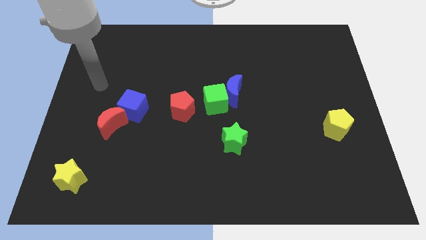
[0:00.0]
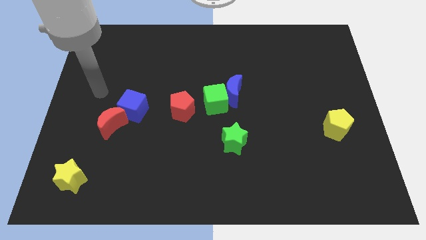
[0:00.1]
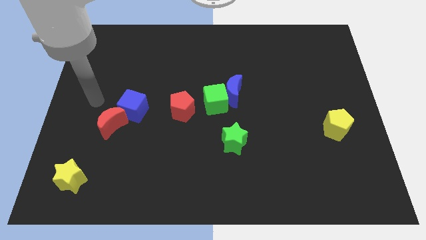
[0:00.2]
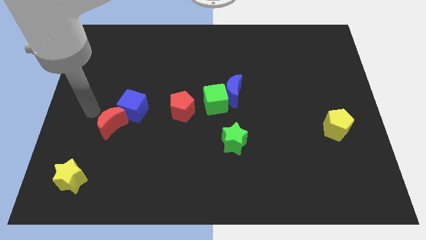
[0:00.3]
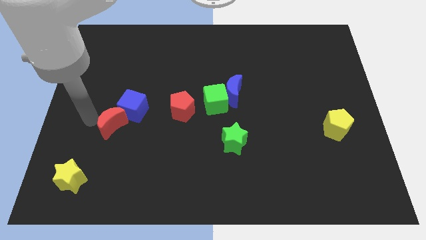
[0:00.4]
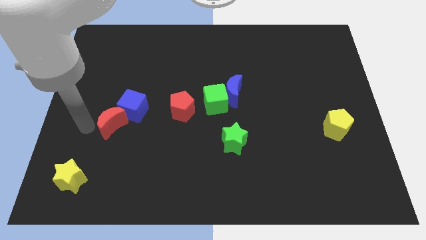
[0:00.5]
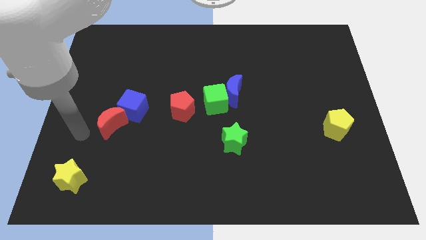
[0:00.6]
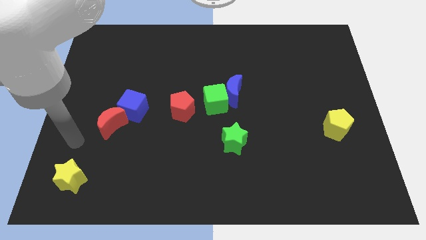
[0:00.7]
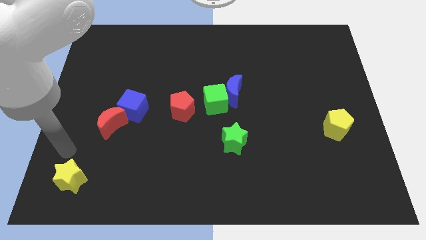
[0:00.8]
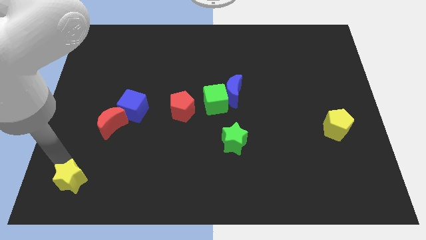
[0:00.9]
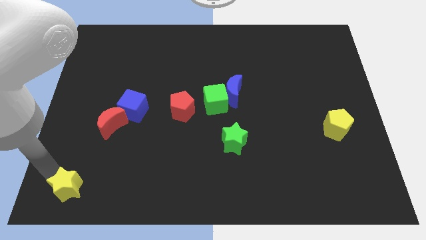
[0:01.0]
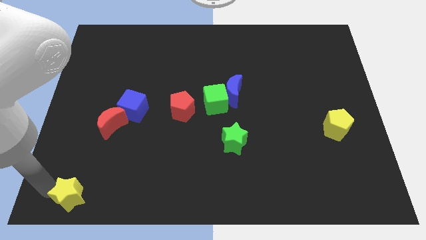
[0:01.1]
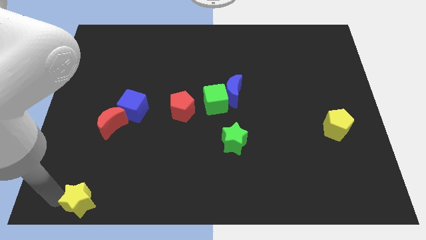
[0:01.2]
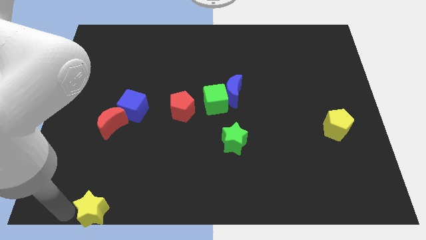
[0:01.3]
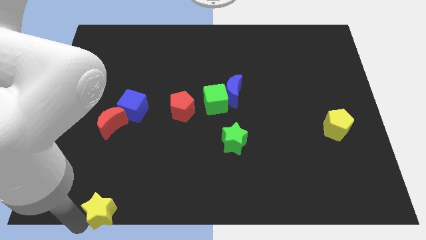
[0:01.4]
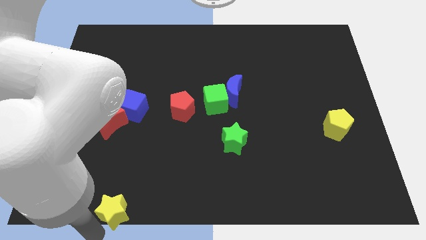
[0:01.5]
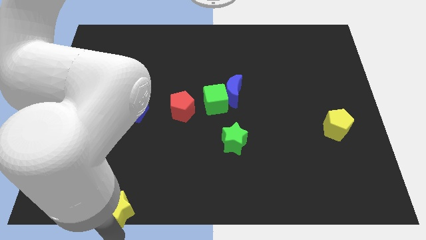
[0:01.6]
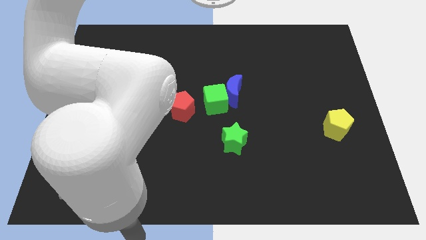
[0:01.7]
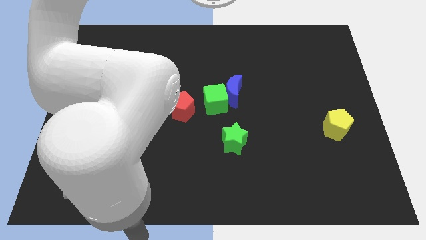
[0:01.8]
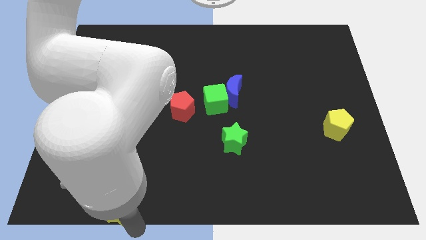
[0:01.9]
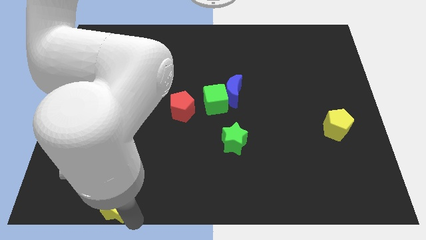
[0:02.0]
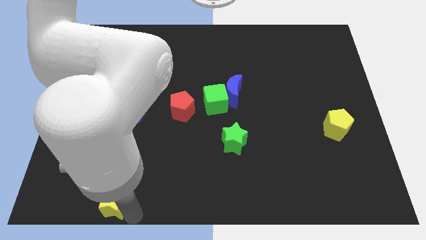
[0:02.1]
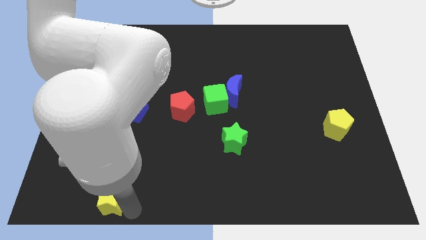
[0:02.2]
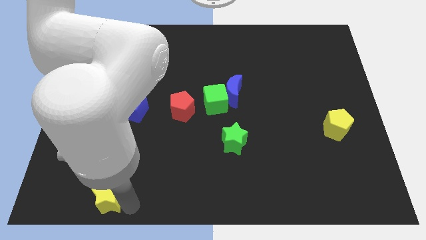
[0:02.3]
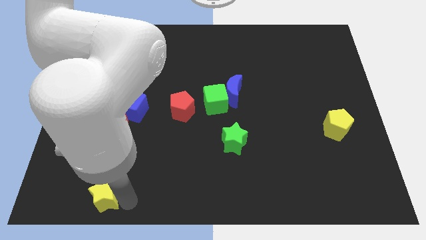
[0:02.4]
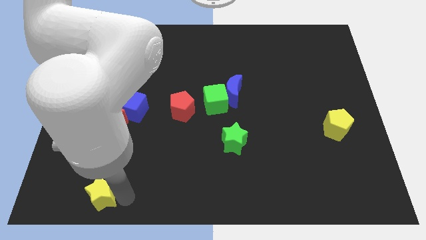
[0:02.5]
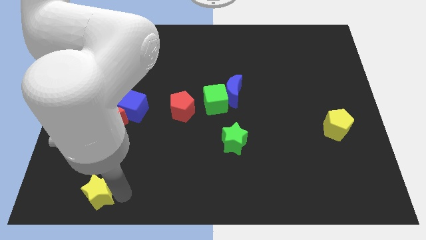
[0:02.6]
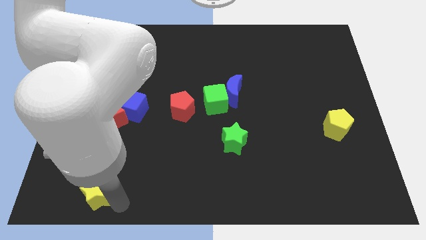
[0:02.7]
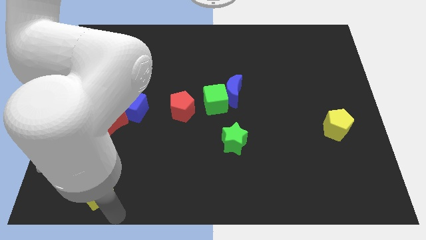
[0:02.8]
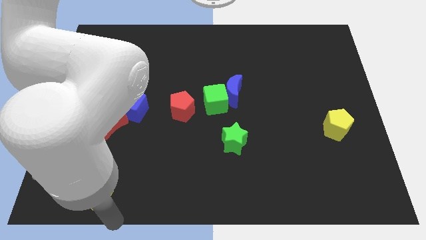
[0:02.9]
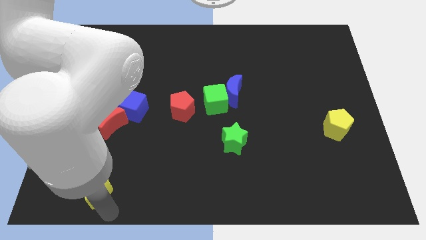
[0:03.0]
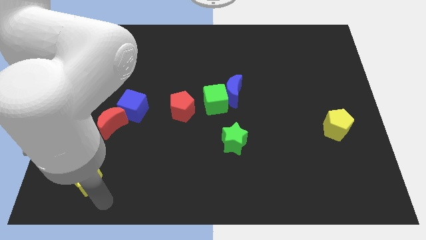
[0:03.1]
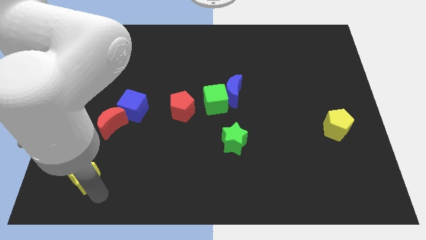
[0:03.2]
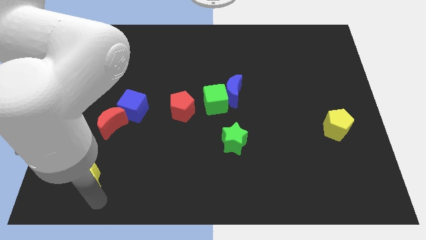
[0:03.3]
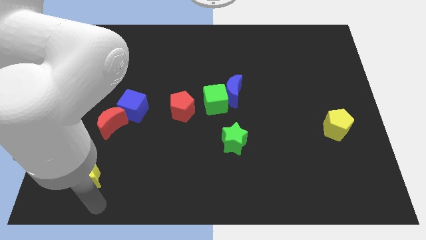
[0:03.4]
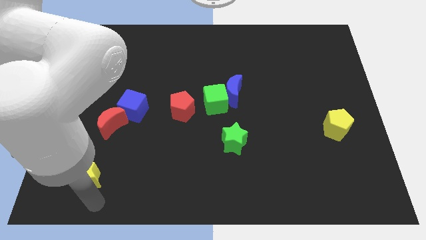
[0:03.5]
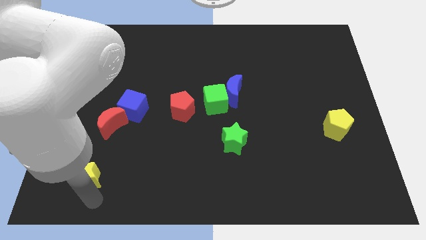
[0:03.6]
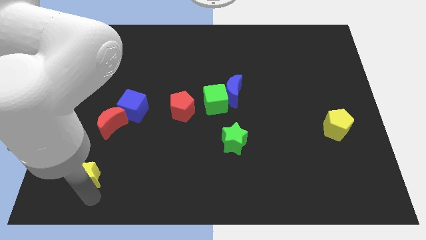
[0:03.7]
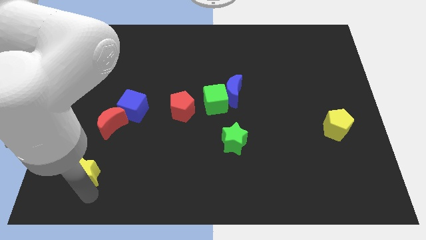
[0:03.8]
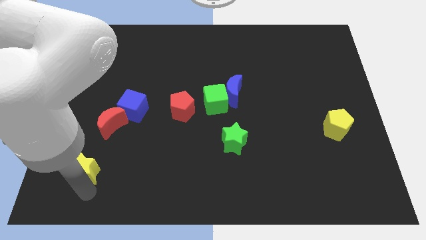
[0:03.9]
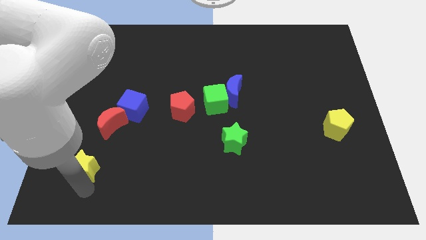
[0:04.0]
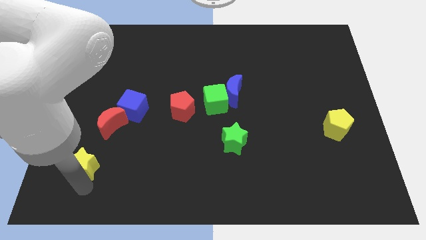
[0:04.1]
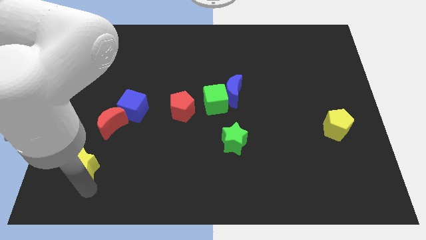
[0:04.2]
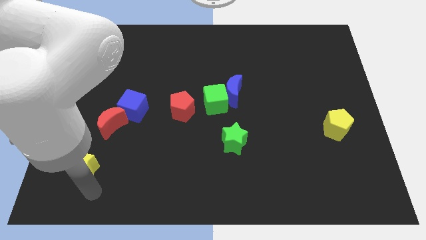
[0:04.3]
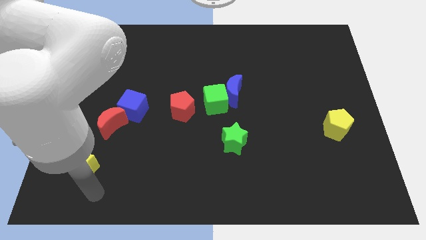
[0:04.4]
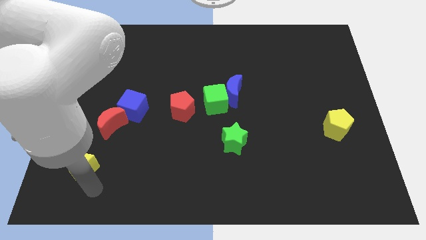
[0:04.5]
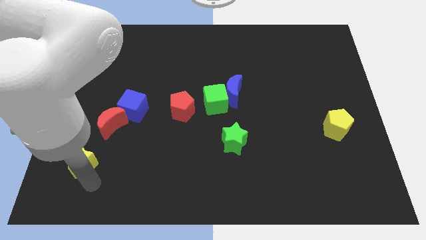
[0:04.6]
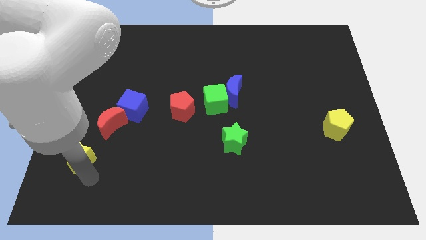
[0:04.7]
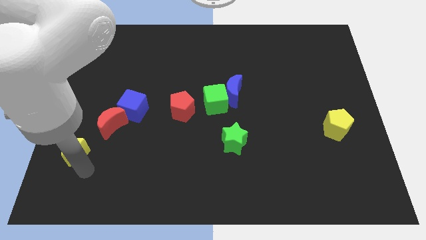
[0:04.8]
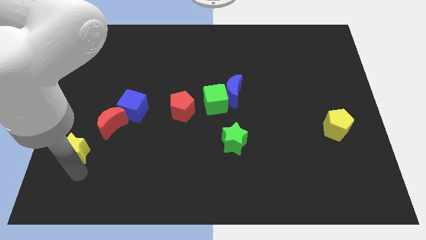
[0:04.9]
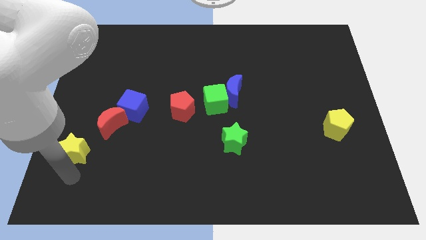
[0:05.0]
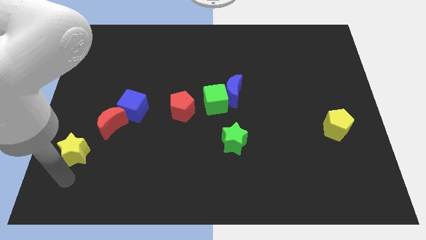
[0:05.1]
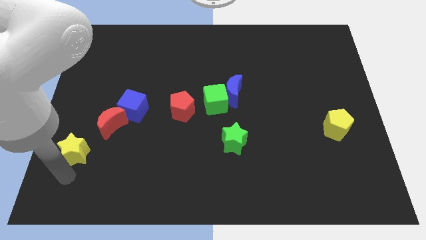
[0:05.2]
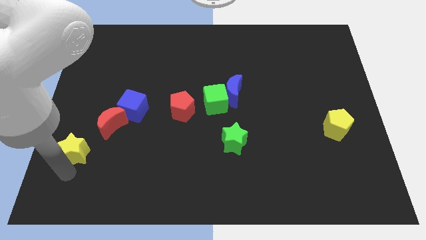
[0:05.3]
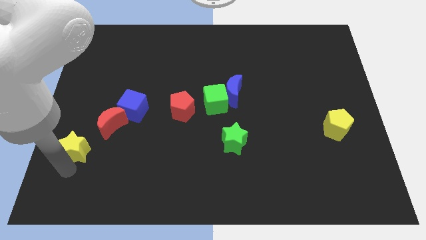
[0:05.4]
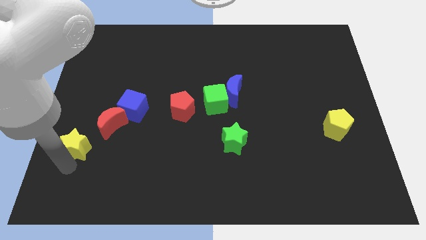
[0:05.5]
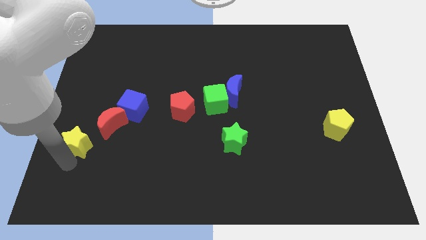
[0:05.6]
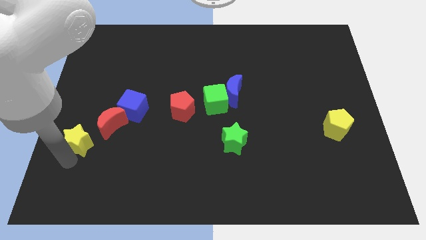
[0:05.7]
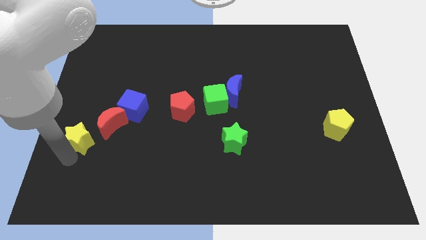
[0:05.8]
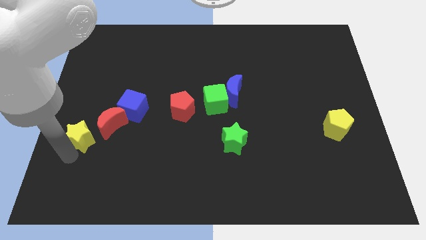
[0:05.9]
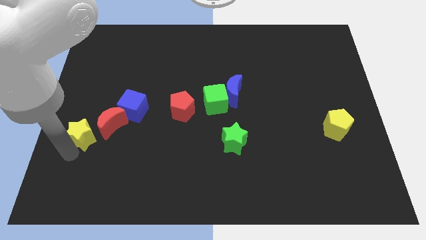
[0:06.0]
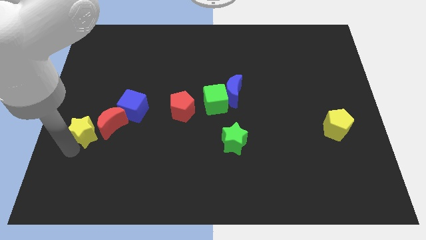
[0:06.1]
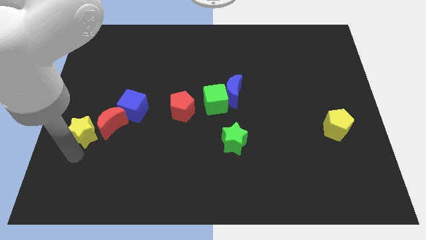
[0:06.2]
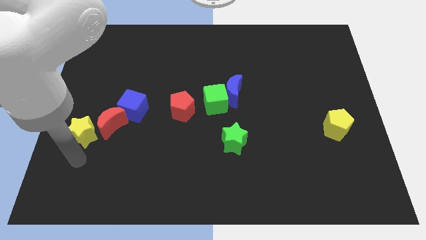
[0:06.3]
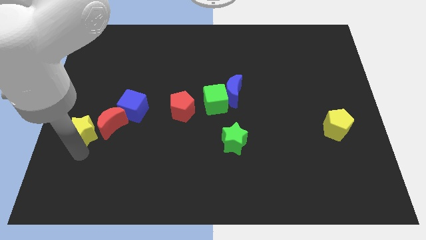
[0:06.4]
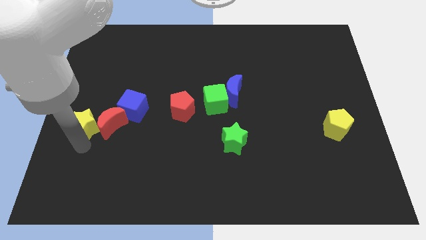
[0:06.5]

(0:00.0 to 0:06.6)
slide the yellow star to the top left side of the red moon
